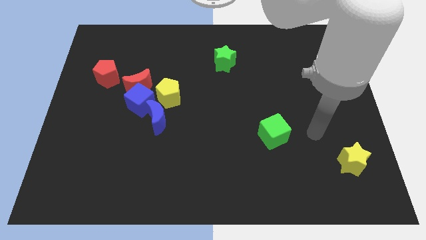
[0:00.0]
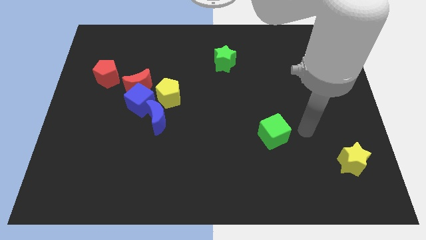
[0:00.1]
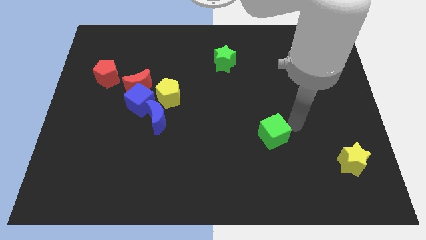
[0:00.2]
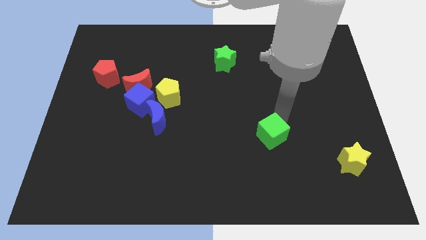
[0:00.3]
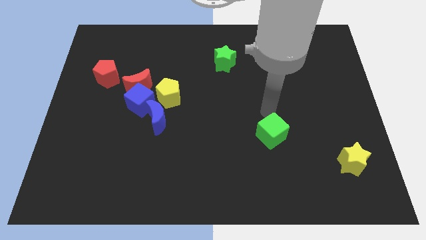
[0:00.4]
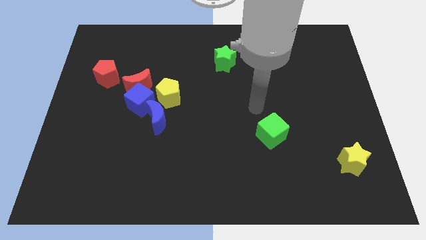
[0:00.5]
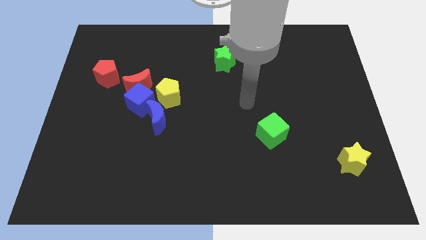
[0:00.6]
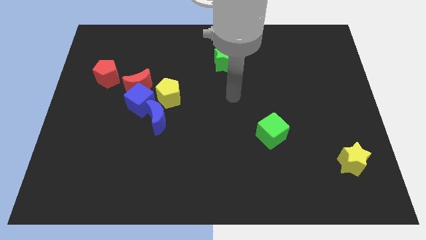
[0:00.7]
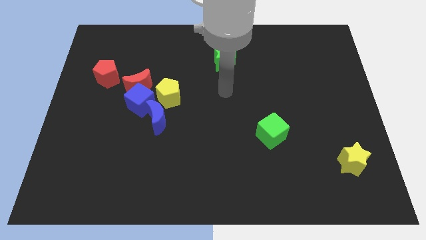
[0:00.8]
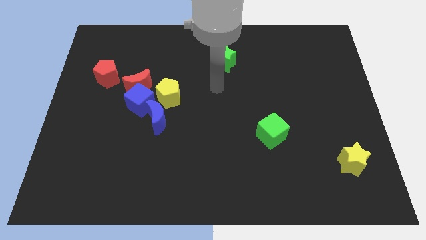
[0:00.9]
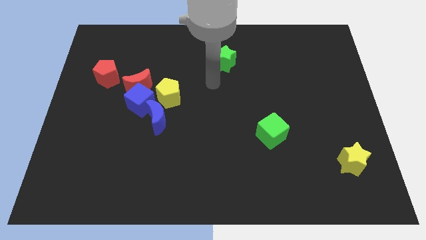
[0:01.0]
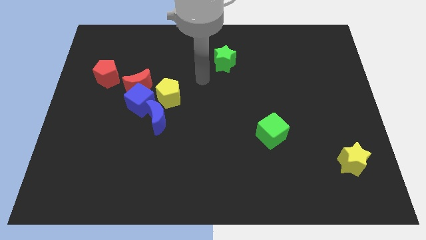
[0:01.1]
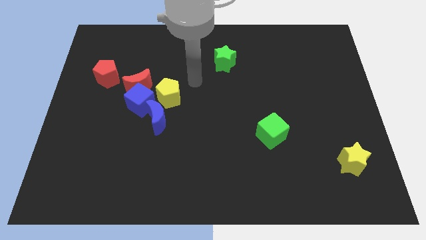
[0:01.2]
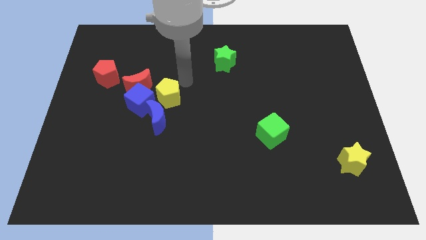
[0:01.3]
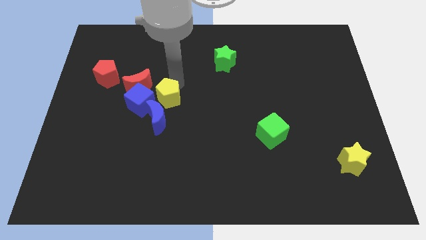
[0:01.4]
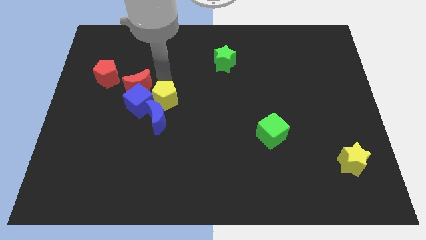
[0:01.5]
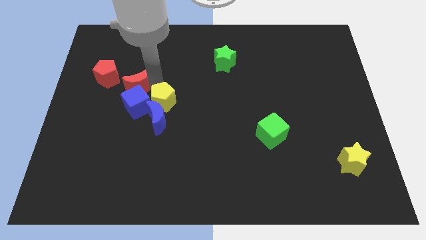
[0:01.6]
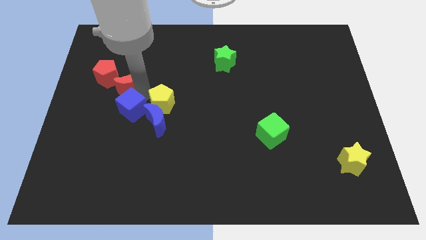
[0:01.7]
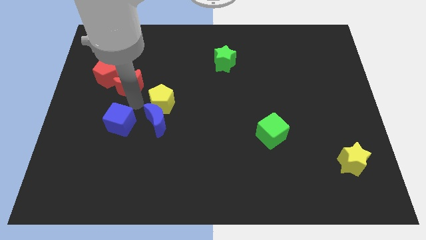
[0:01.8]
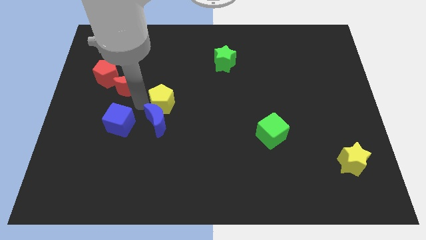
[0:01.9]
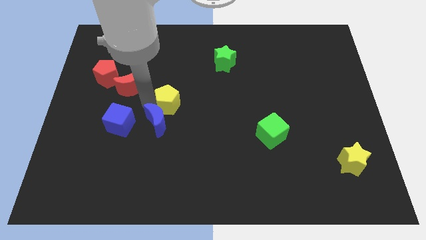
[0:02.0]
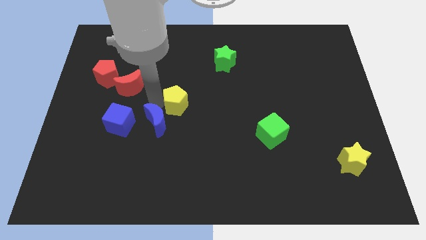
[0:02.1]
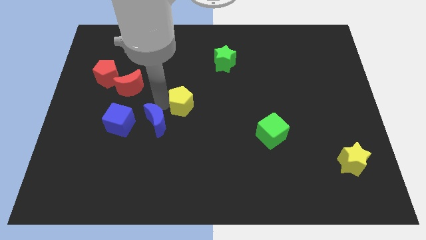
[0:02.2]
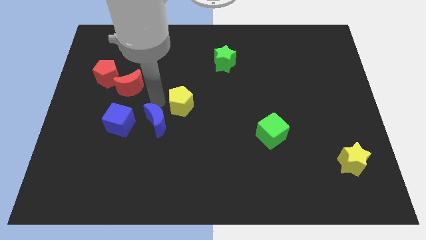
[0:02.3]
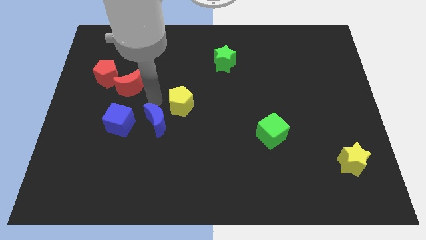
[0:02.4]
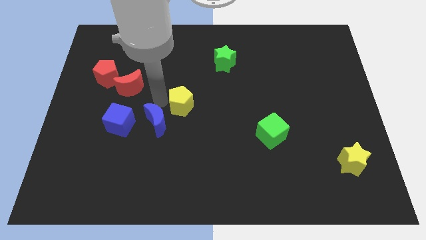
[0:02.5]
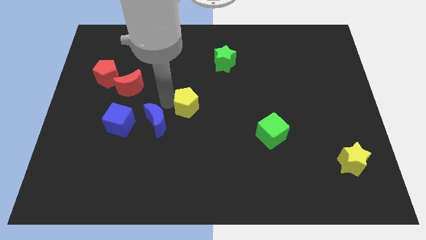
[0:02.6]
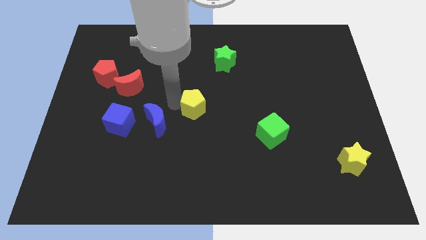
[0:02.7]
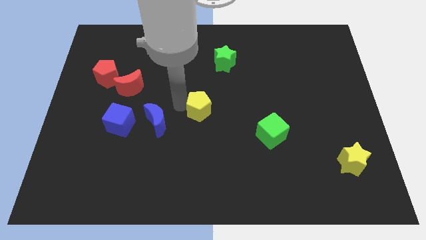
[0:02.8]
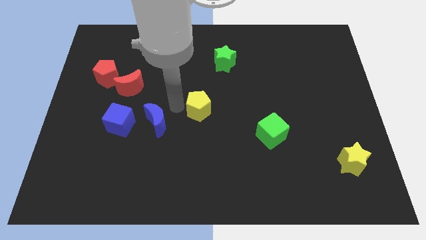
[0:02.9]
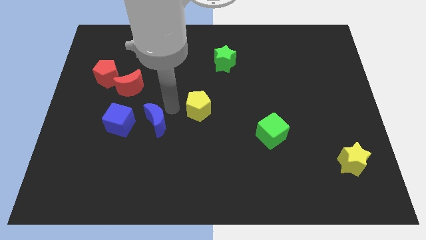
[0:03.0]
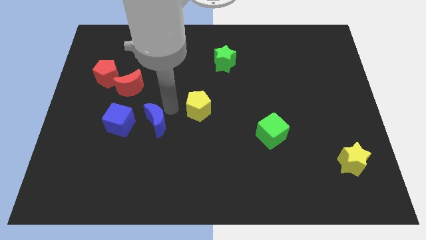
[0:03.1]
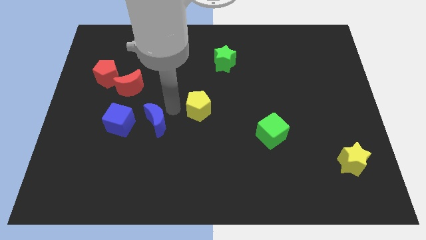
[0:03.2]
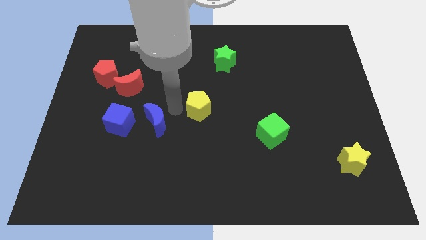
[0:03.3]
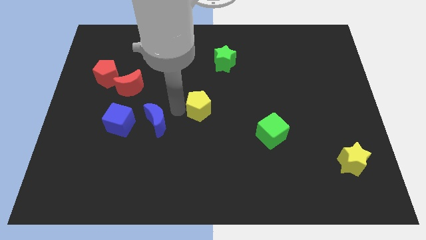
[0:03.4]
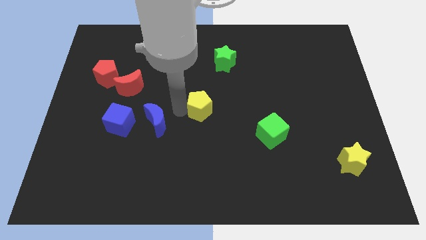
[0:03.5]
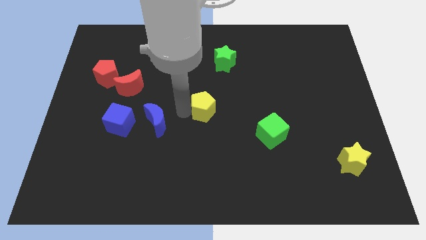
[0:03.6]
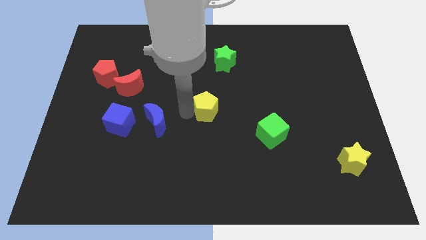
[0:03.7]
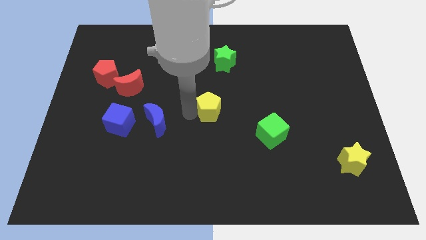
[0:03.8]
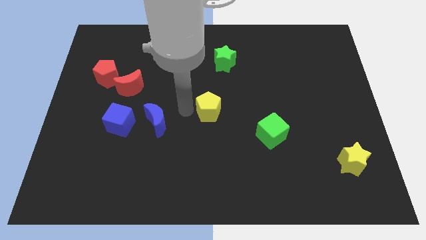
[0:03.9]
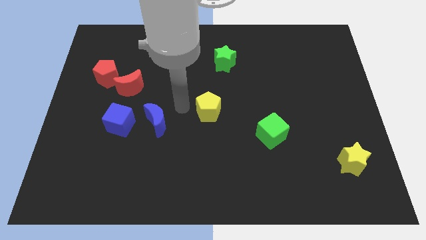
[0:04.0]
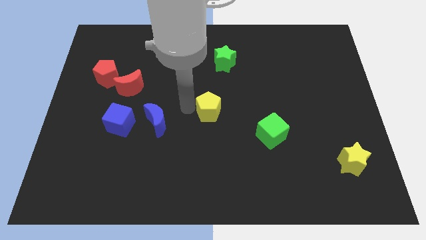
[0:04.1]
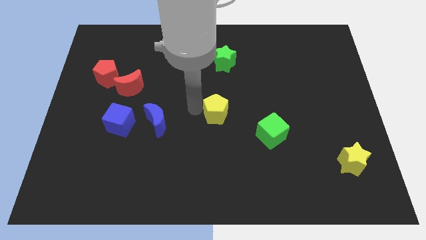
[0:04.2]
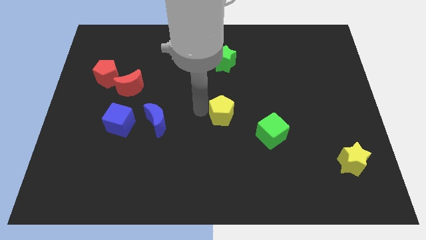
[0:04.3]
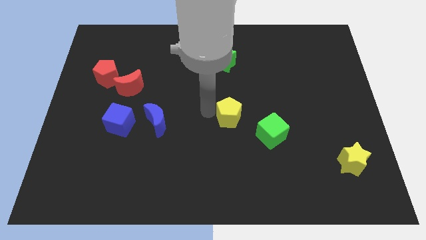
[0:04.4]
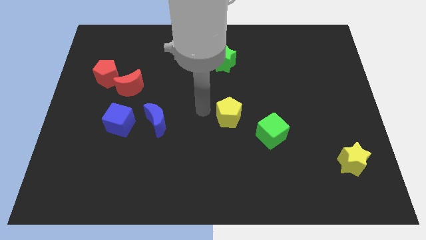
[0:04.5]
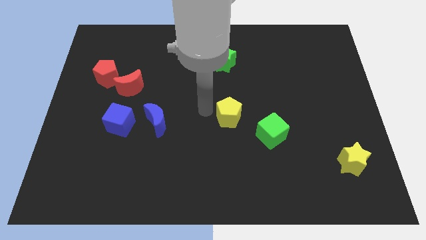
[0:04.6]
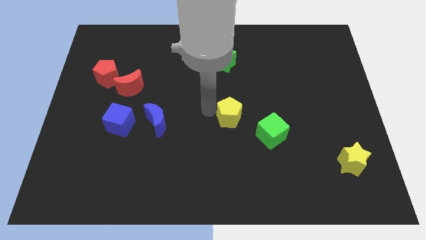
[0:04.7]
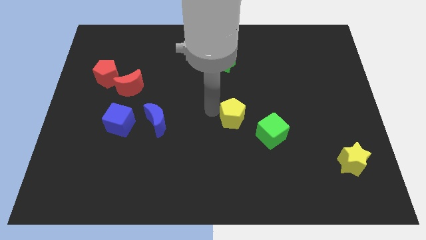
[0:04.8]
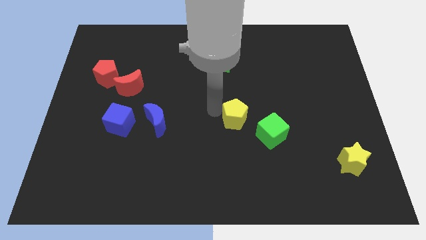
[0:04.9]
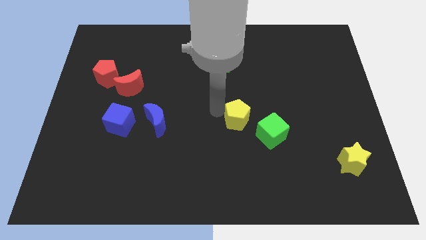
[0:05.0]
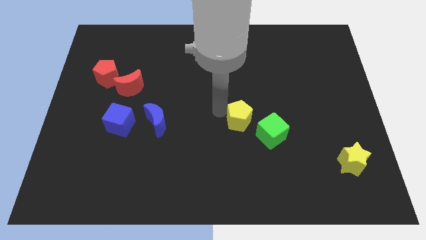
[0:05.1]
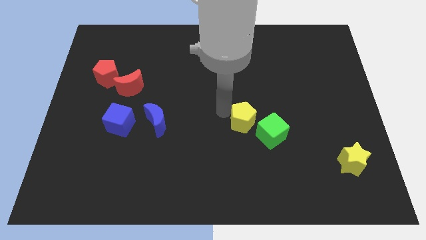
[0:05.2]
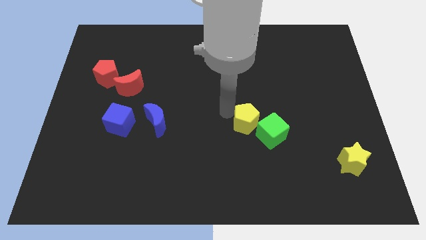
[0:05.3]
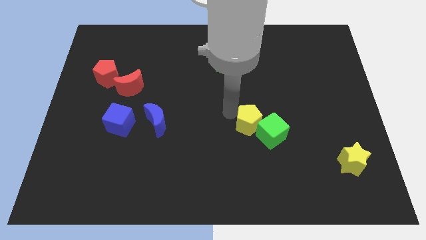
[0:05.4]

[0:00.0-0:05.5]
slide the yellow pentagon next to the green cube

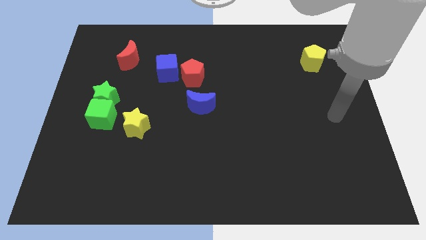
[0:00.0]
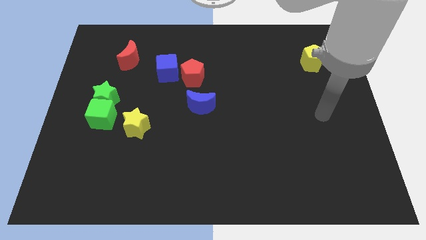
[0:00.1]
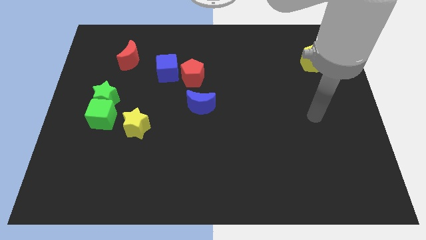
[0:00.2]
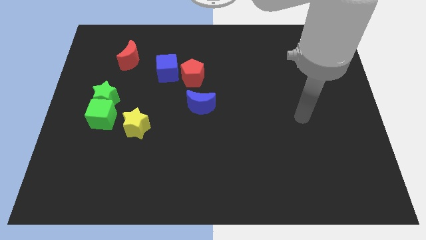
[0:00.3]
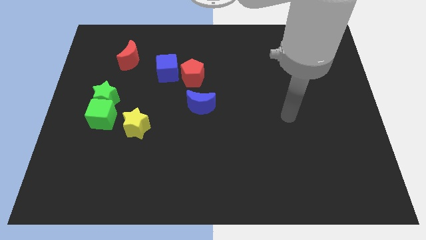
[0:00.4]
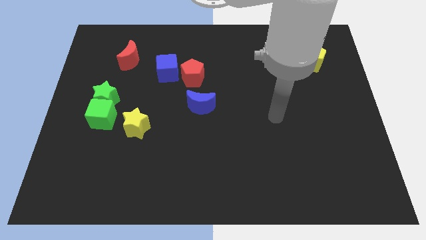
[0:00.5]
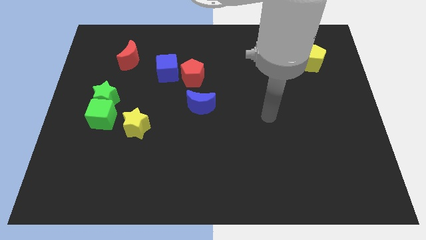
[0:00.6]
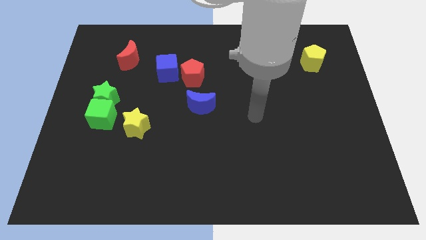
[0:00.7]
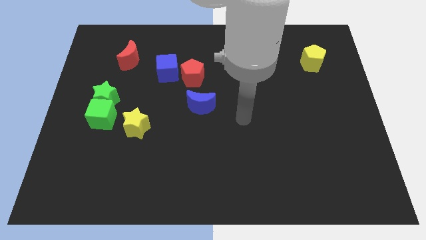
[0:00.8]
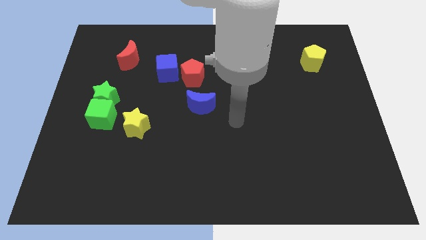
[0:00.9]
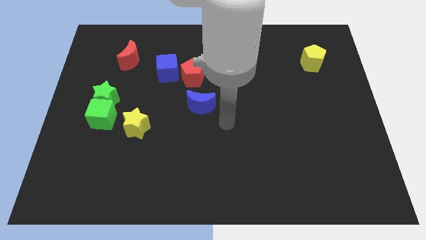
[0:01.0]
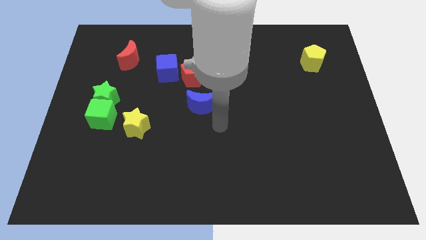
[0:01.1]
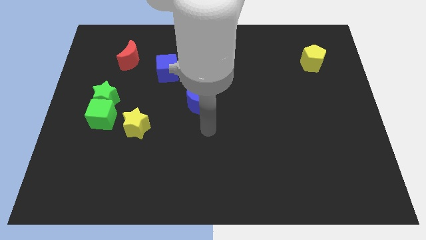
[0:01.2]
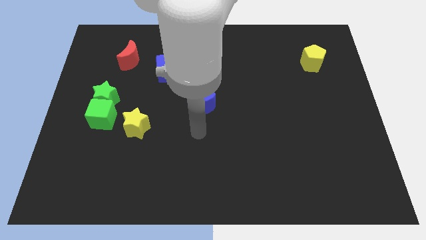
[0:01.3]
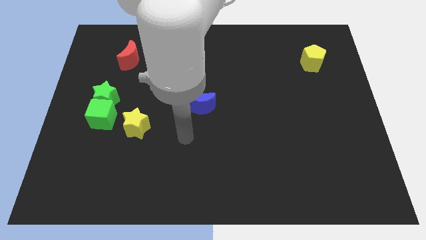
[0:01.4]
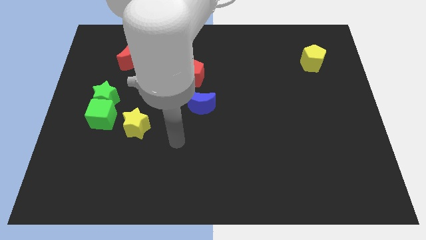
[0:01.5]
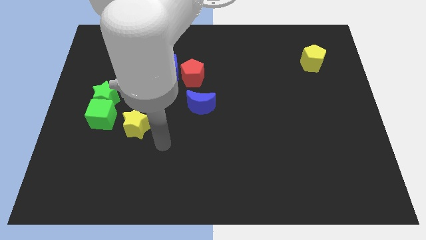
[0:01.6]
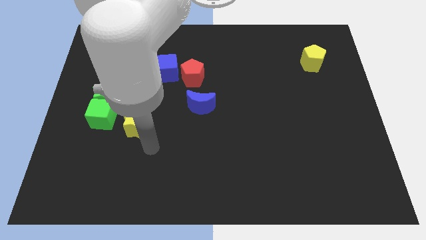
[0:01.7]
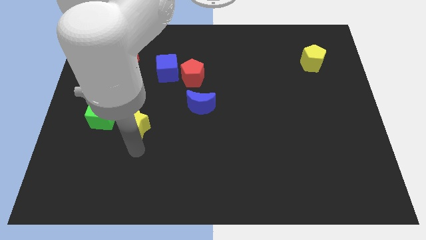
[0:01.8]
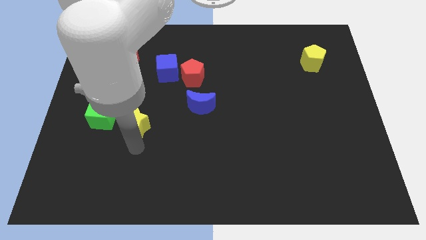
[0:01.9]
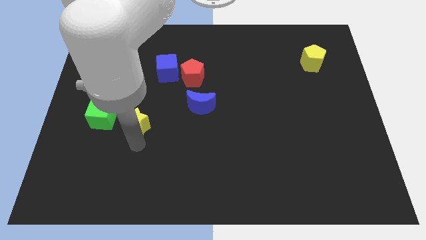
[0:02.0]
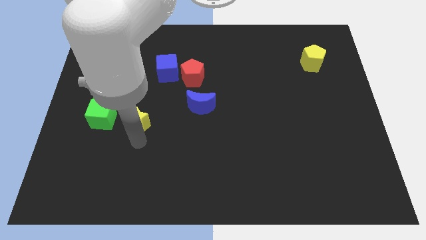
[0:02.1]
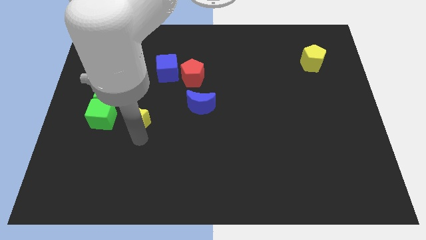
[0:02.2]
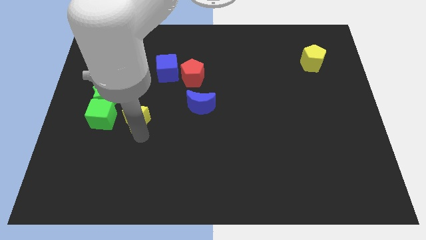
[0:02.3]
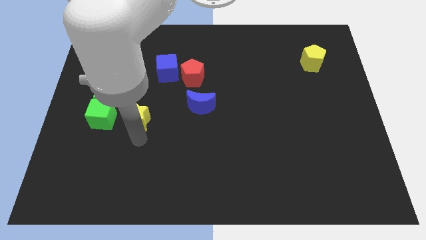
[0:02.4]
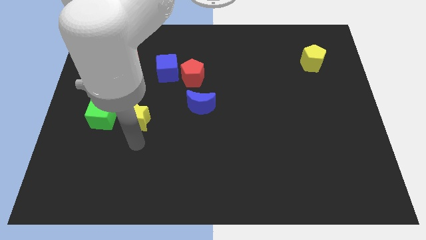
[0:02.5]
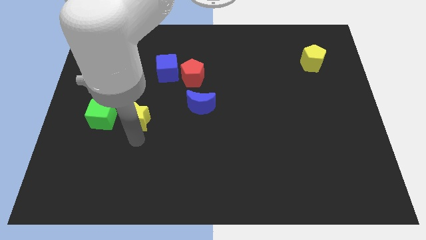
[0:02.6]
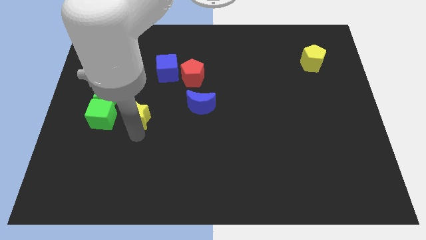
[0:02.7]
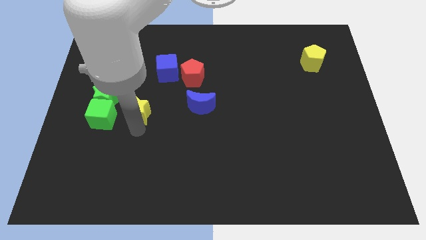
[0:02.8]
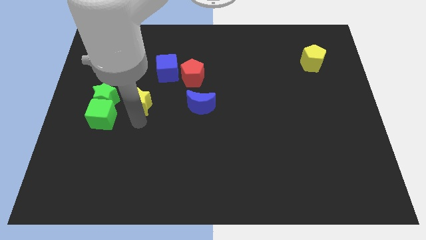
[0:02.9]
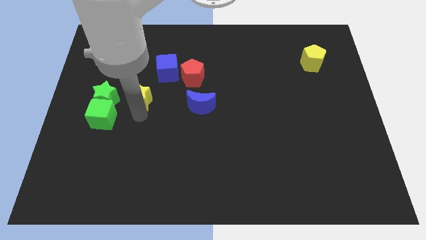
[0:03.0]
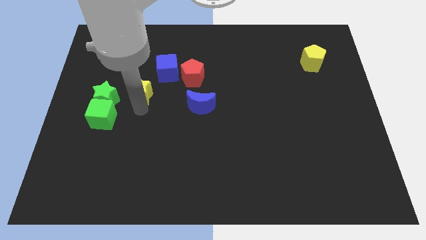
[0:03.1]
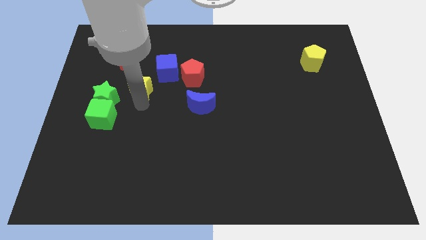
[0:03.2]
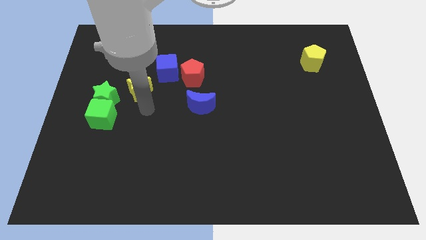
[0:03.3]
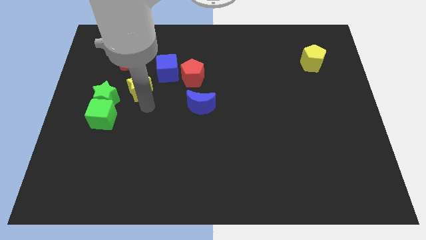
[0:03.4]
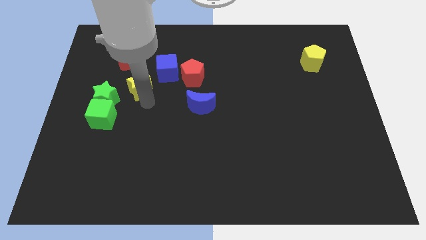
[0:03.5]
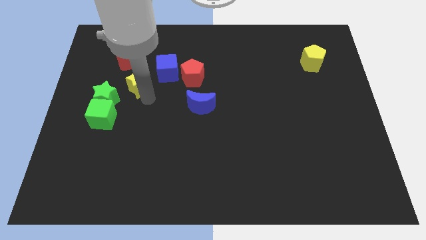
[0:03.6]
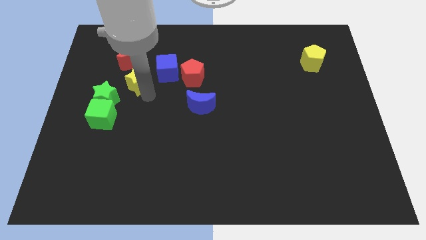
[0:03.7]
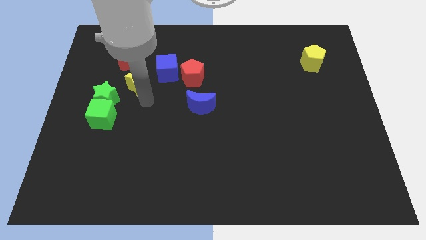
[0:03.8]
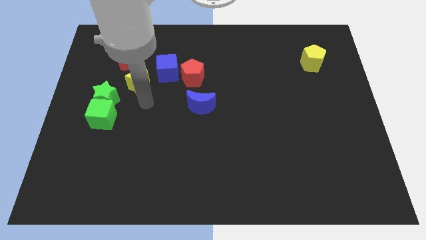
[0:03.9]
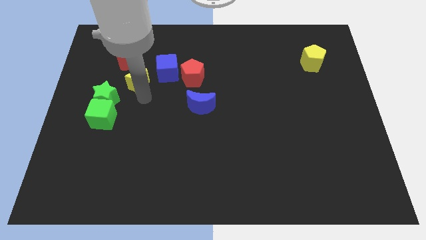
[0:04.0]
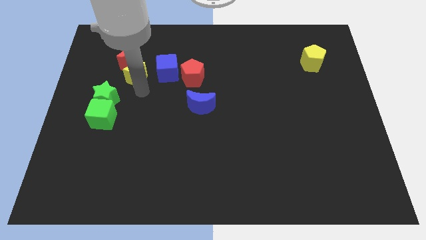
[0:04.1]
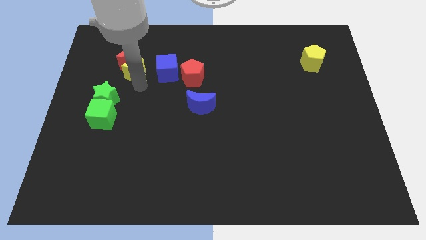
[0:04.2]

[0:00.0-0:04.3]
slide the yellow star next to the red moon
